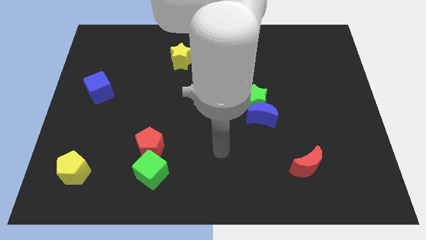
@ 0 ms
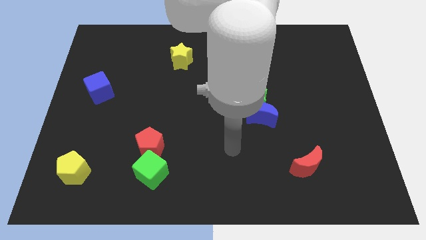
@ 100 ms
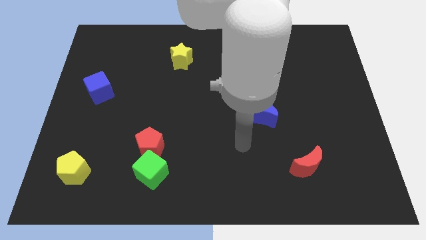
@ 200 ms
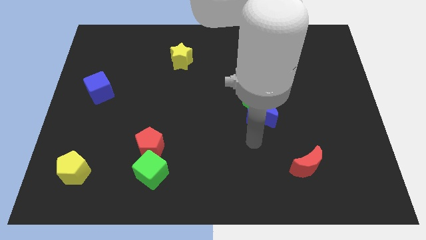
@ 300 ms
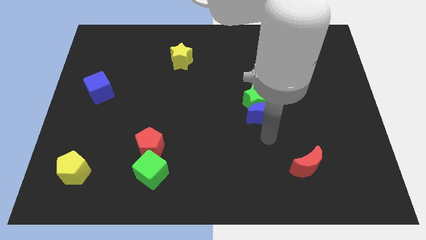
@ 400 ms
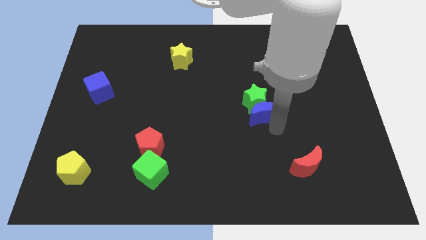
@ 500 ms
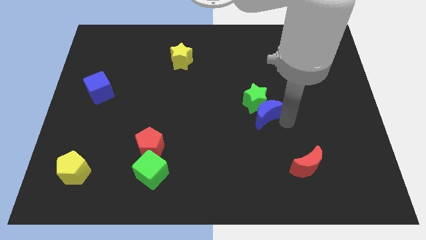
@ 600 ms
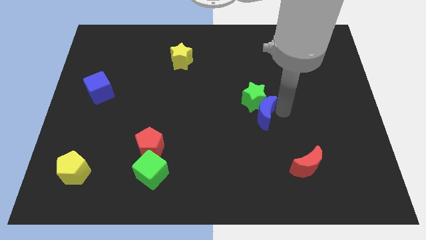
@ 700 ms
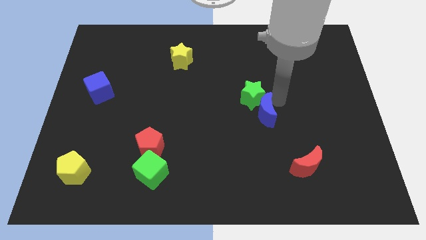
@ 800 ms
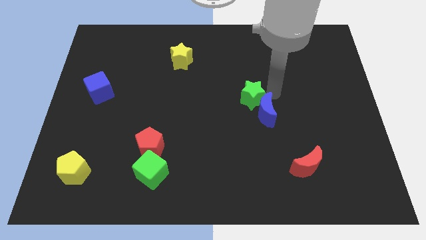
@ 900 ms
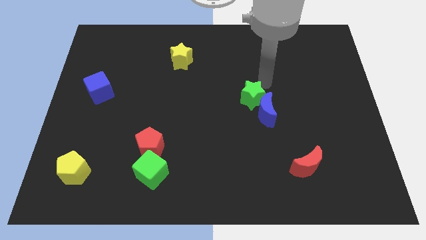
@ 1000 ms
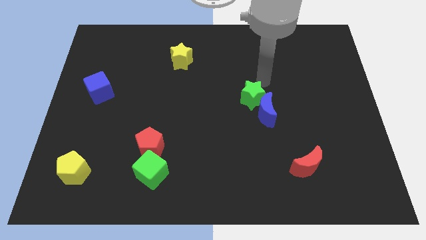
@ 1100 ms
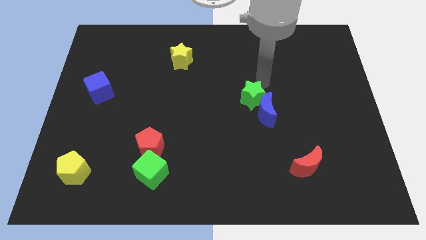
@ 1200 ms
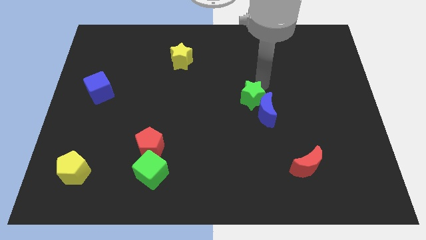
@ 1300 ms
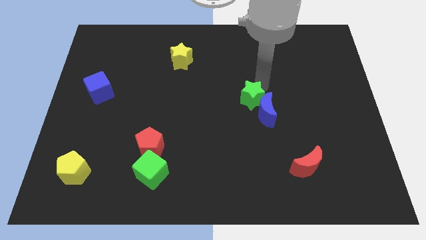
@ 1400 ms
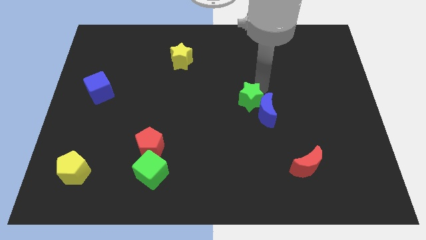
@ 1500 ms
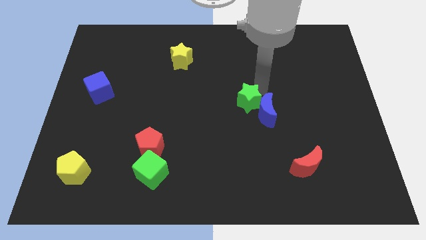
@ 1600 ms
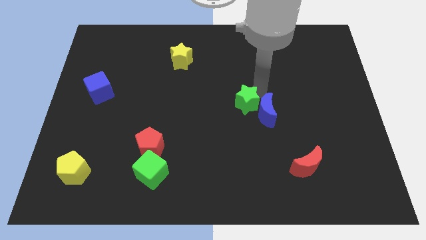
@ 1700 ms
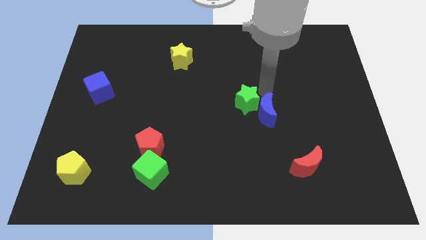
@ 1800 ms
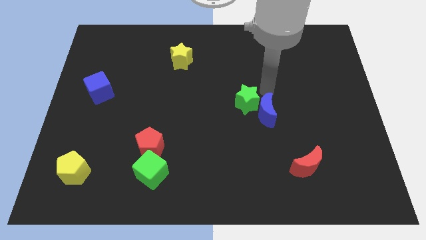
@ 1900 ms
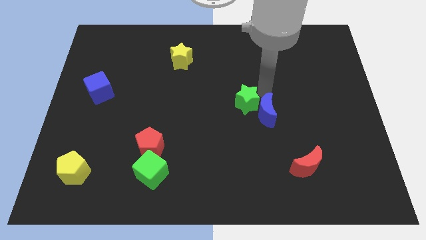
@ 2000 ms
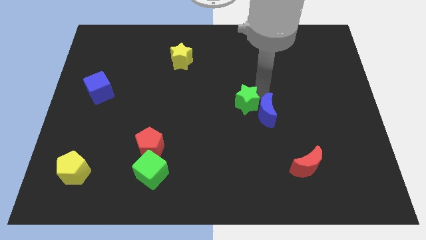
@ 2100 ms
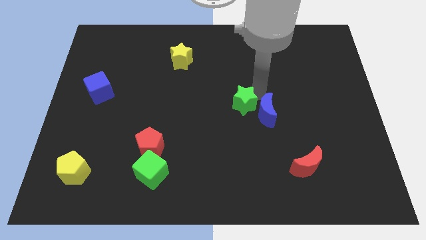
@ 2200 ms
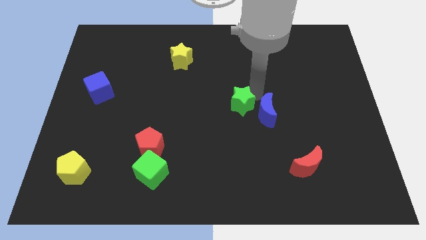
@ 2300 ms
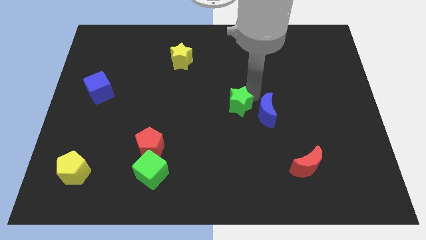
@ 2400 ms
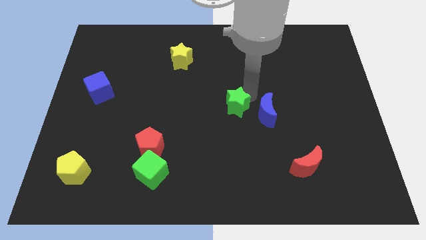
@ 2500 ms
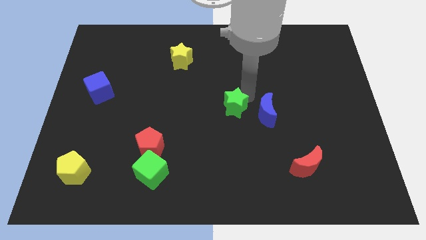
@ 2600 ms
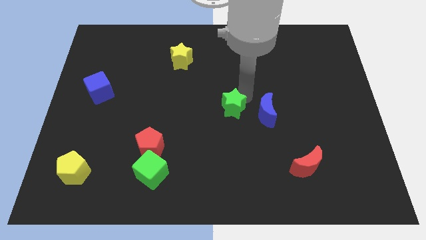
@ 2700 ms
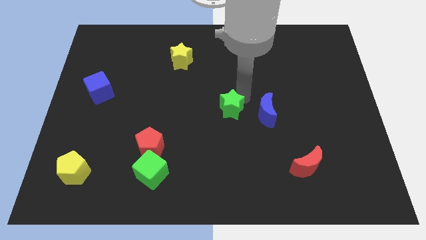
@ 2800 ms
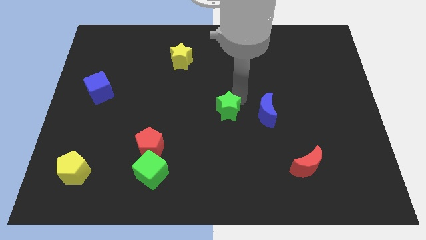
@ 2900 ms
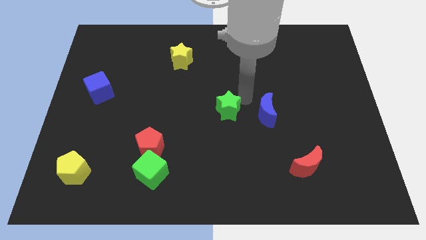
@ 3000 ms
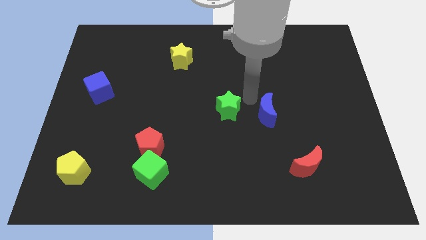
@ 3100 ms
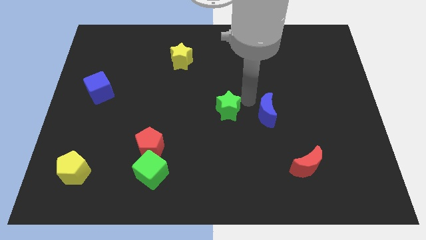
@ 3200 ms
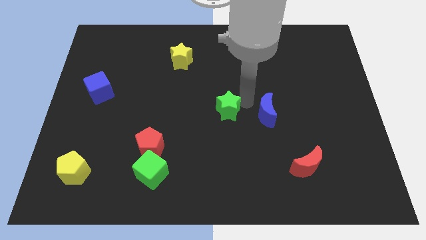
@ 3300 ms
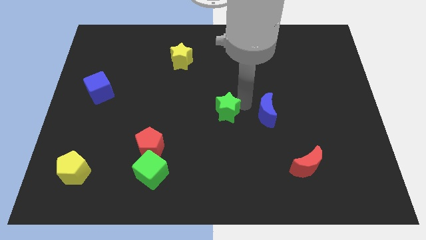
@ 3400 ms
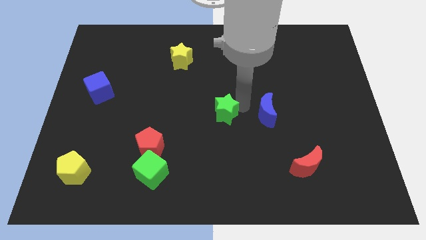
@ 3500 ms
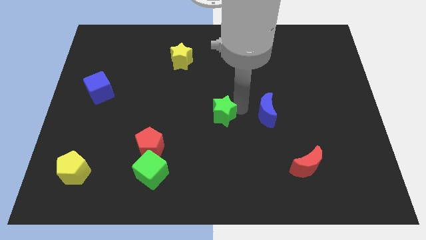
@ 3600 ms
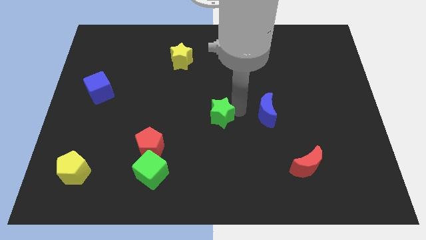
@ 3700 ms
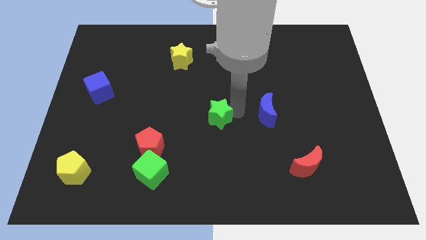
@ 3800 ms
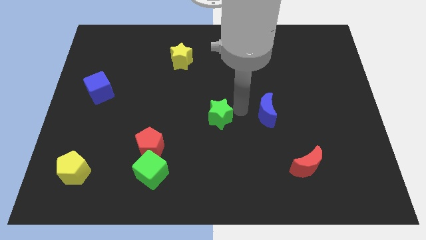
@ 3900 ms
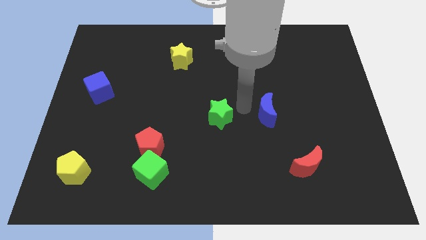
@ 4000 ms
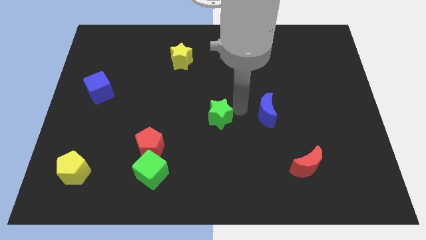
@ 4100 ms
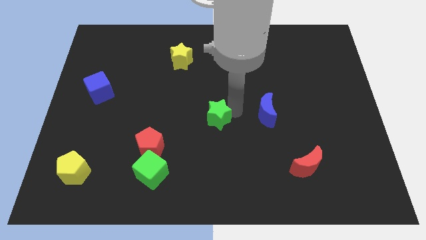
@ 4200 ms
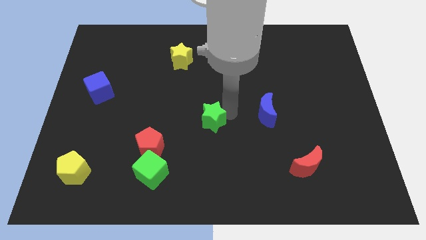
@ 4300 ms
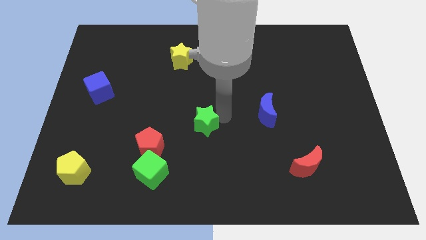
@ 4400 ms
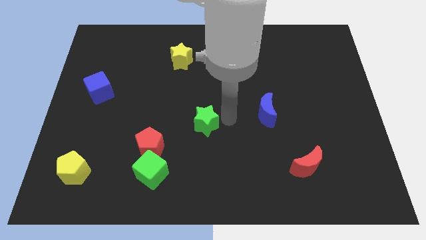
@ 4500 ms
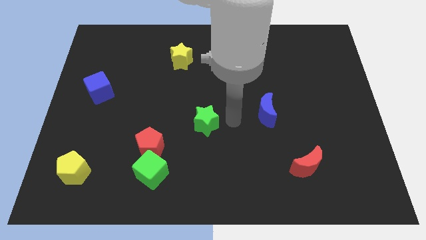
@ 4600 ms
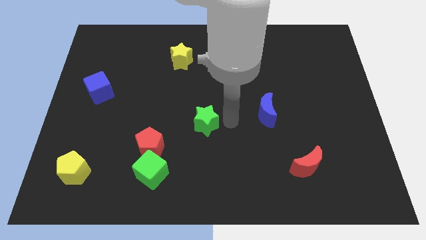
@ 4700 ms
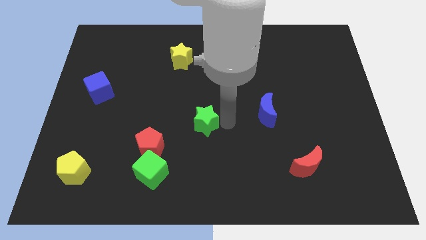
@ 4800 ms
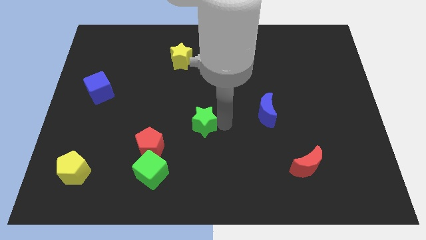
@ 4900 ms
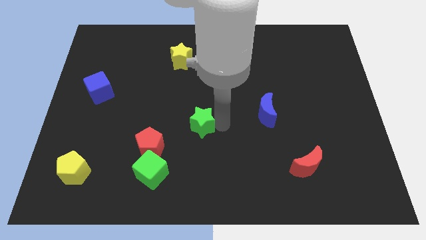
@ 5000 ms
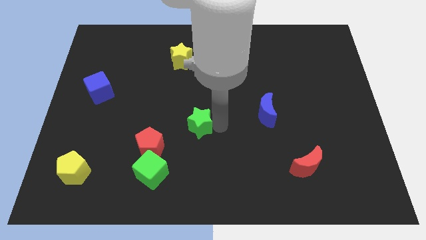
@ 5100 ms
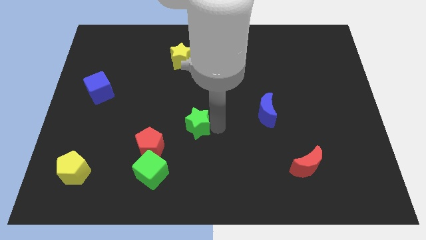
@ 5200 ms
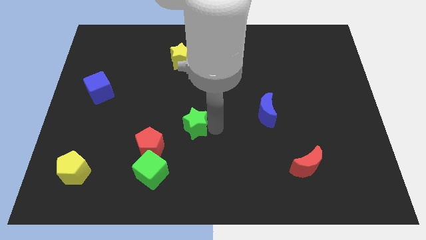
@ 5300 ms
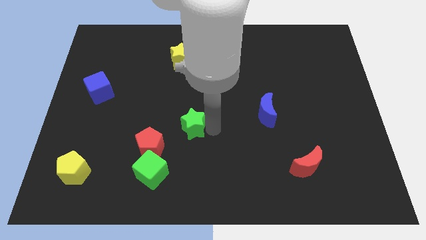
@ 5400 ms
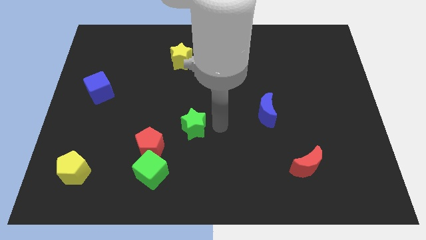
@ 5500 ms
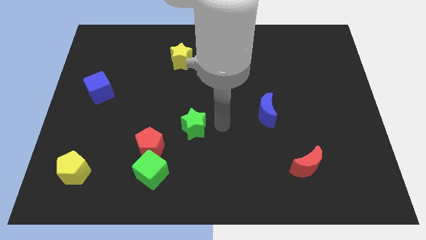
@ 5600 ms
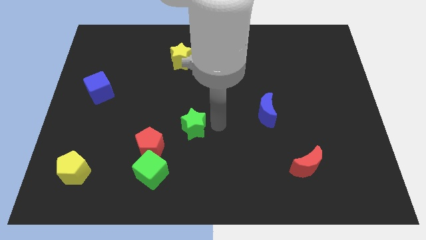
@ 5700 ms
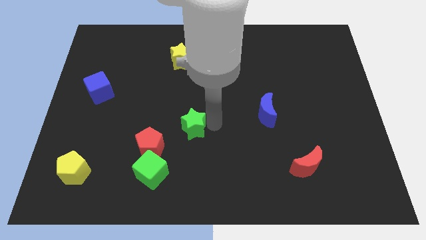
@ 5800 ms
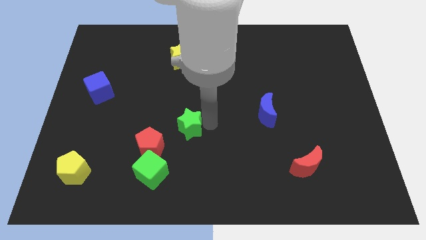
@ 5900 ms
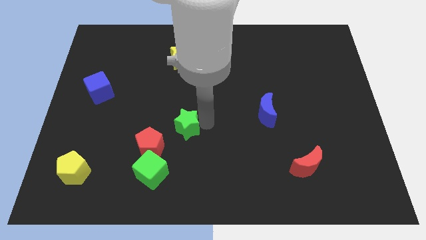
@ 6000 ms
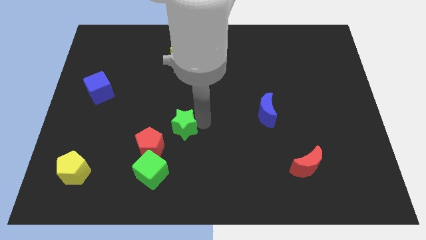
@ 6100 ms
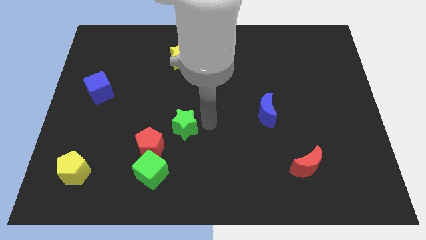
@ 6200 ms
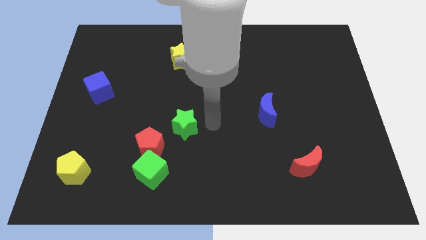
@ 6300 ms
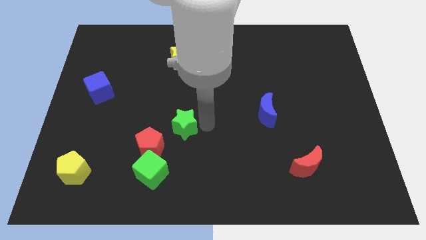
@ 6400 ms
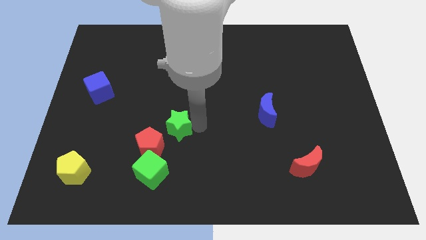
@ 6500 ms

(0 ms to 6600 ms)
move the green star above the green cube

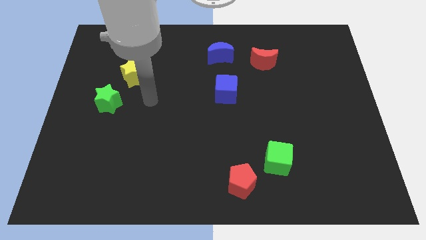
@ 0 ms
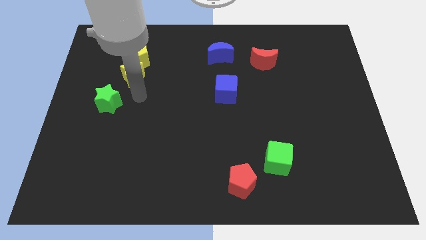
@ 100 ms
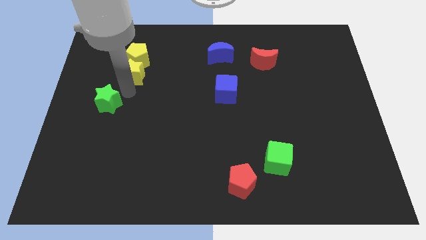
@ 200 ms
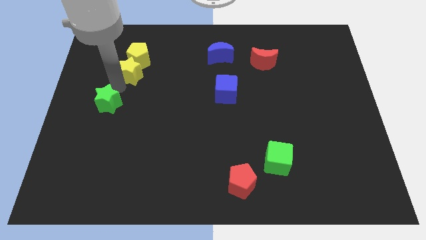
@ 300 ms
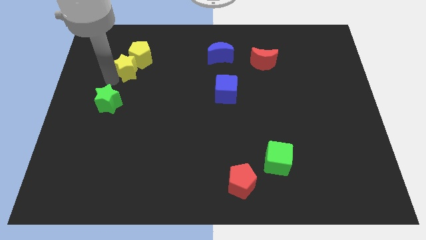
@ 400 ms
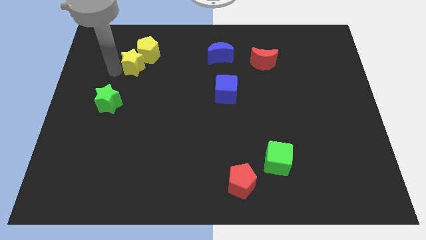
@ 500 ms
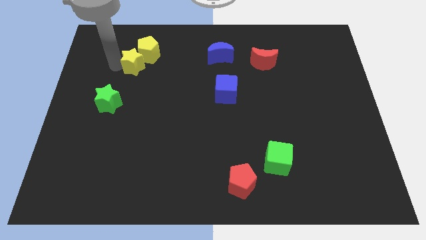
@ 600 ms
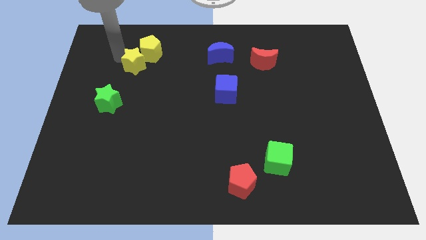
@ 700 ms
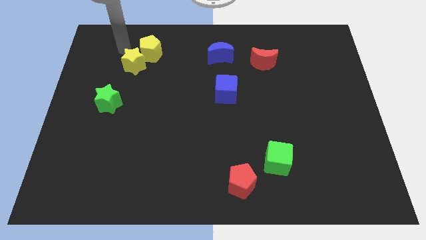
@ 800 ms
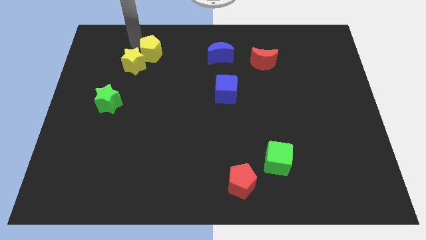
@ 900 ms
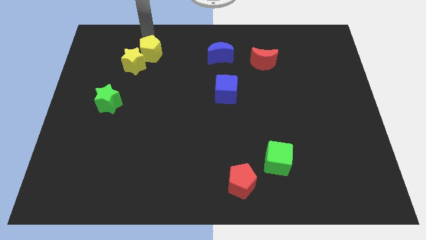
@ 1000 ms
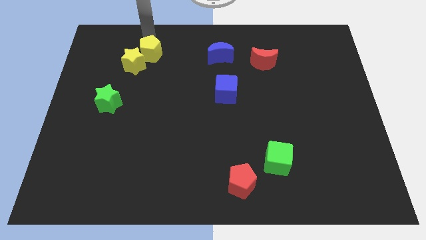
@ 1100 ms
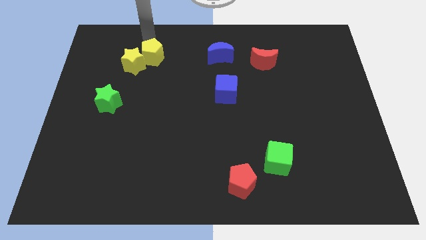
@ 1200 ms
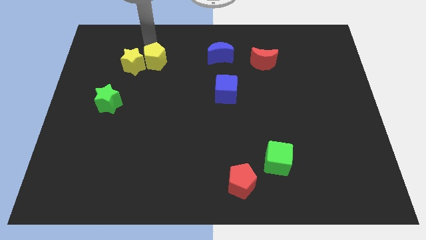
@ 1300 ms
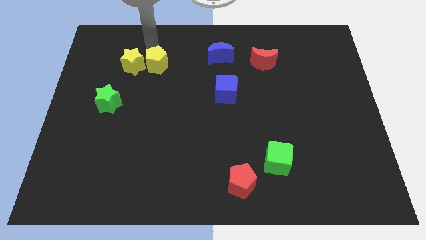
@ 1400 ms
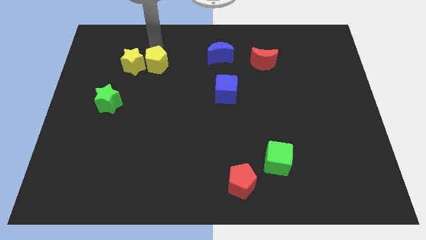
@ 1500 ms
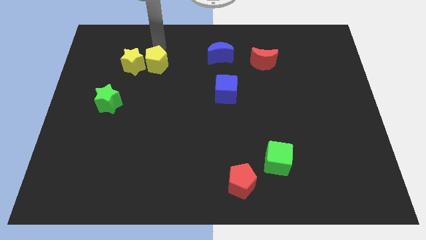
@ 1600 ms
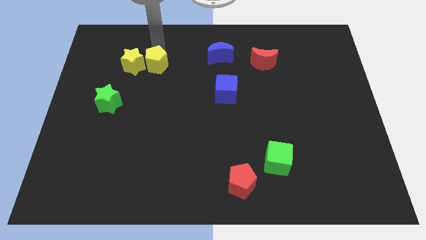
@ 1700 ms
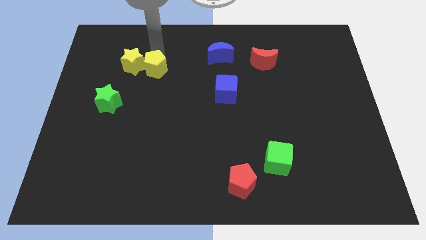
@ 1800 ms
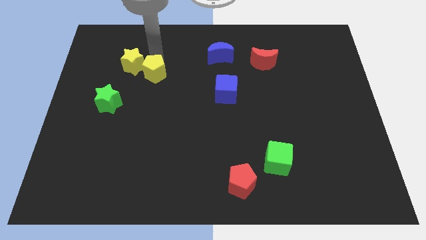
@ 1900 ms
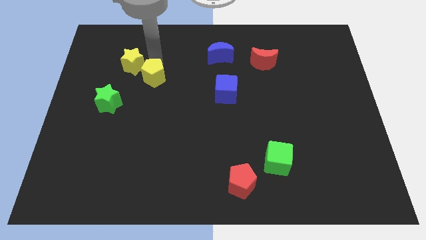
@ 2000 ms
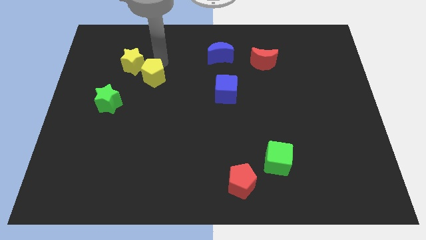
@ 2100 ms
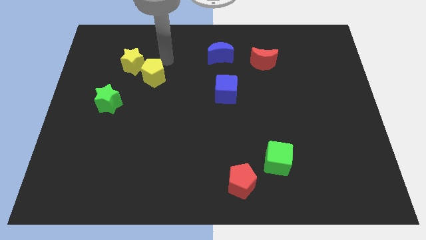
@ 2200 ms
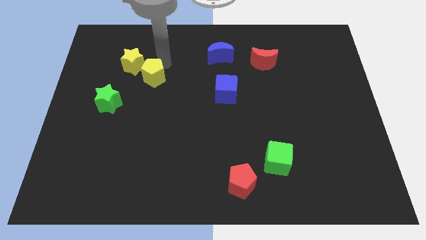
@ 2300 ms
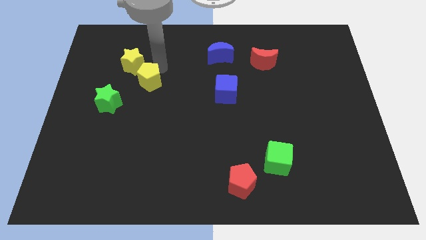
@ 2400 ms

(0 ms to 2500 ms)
push the yellow pentagon below the yellow star
